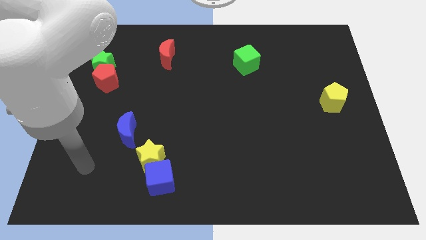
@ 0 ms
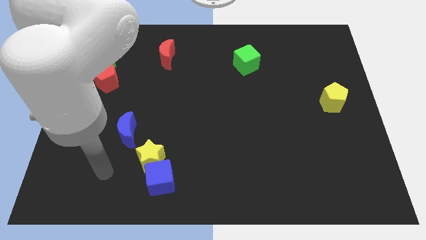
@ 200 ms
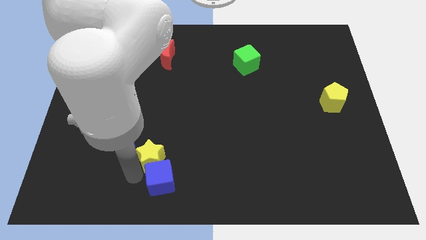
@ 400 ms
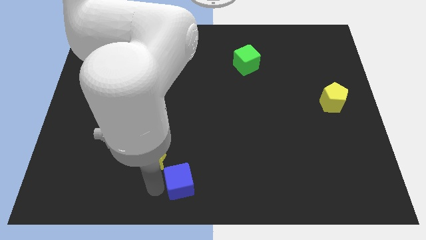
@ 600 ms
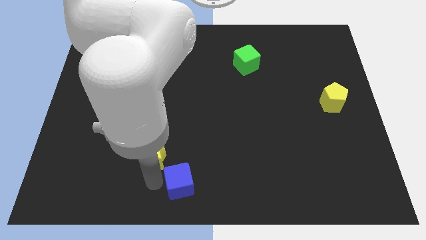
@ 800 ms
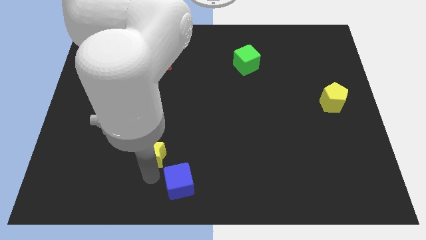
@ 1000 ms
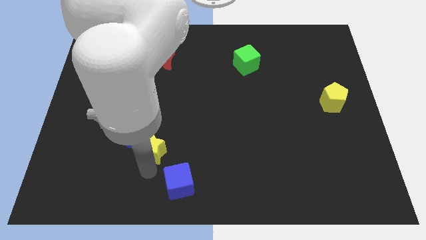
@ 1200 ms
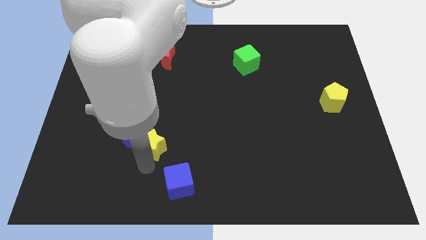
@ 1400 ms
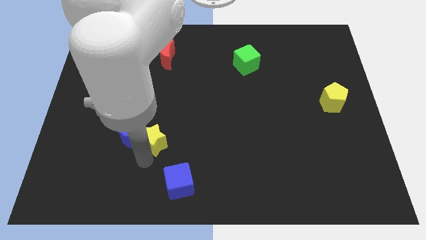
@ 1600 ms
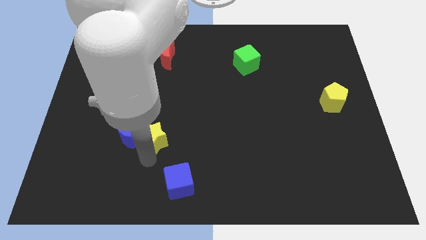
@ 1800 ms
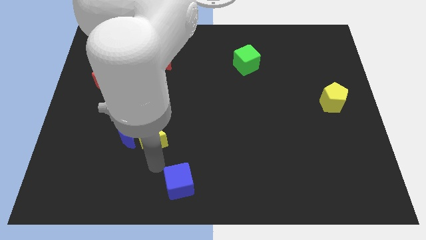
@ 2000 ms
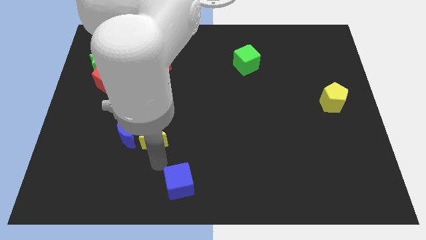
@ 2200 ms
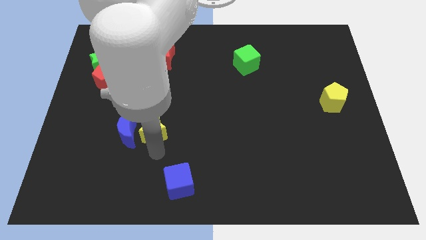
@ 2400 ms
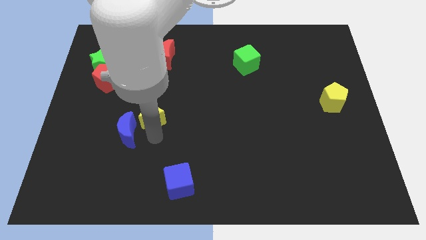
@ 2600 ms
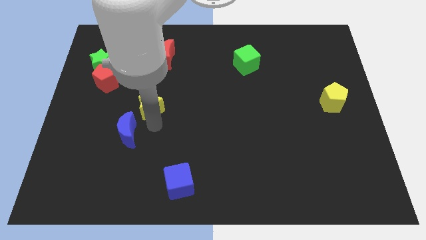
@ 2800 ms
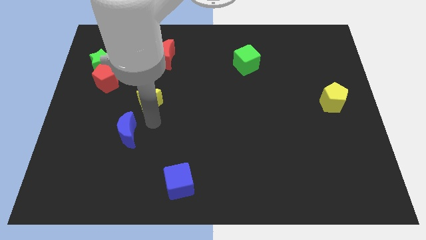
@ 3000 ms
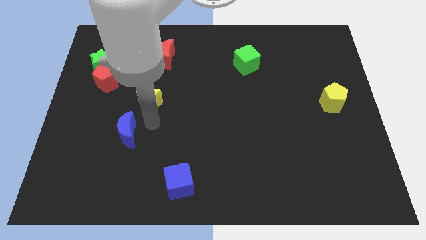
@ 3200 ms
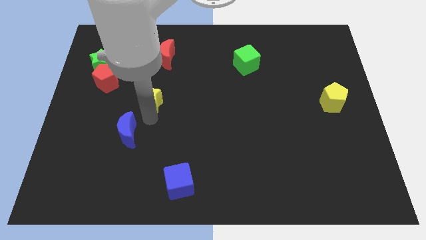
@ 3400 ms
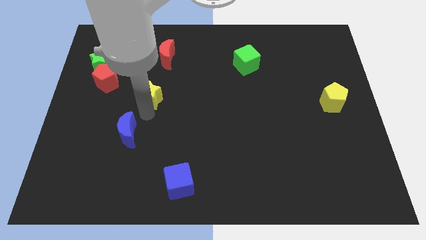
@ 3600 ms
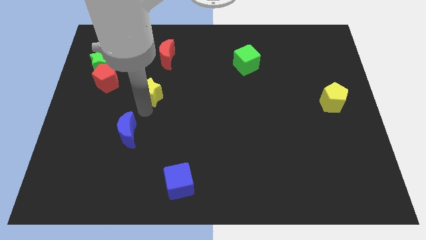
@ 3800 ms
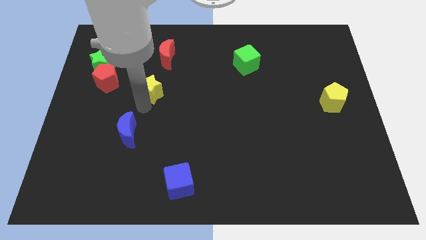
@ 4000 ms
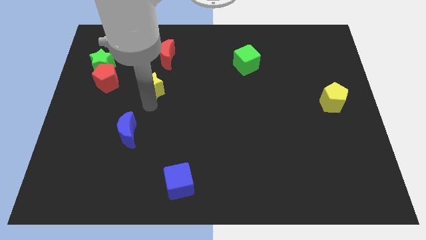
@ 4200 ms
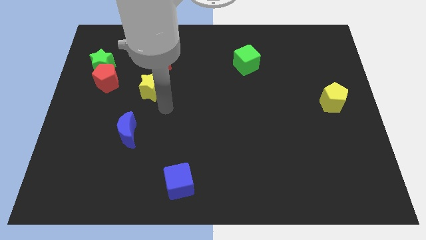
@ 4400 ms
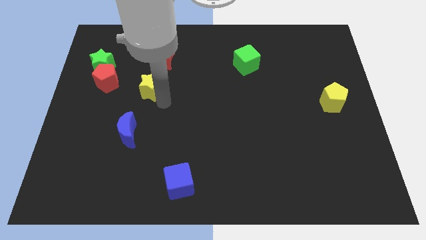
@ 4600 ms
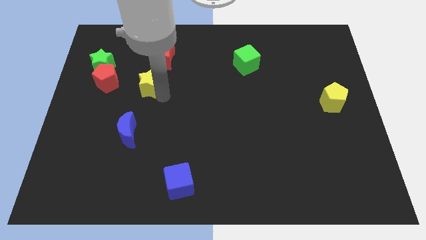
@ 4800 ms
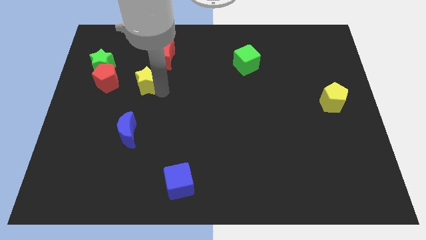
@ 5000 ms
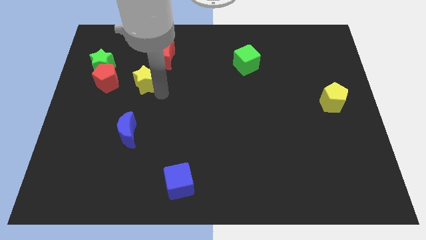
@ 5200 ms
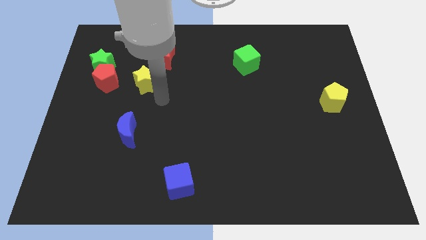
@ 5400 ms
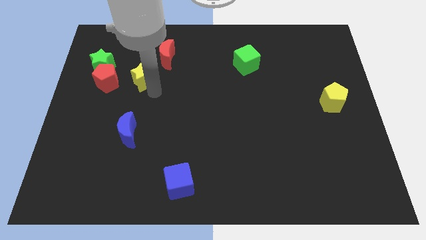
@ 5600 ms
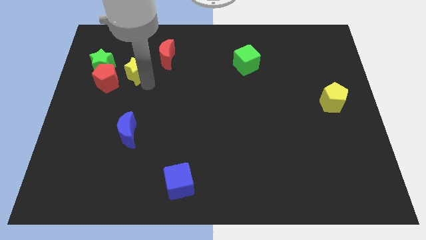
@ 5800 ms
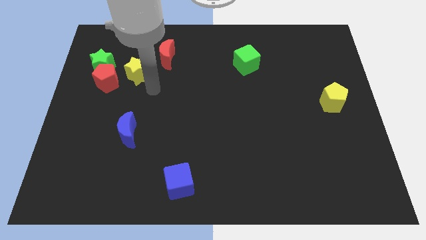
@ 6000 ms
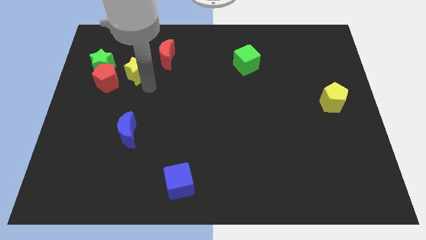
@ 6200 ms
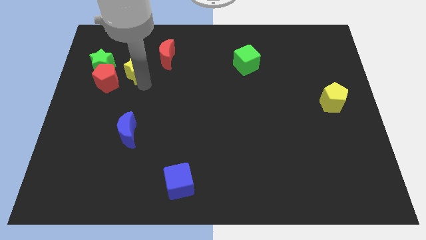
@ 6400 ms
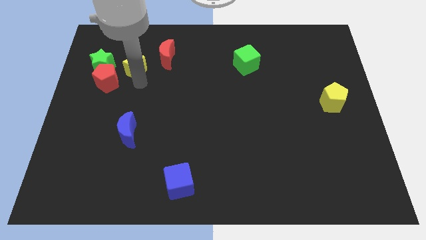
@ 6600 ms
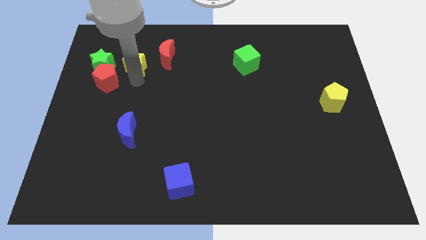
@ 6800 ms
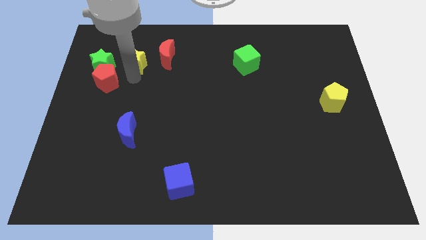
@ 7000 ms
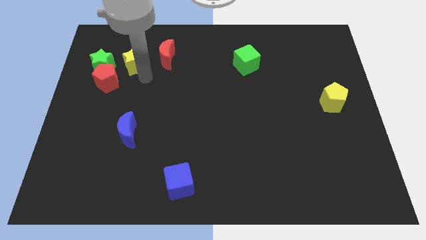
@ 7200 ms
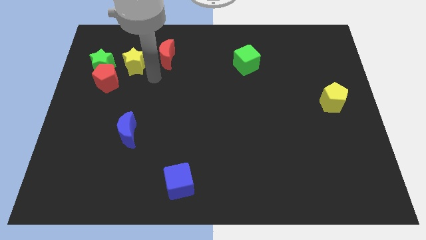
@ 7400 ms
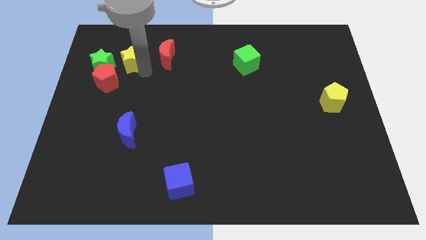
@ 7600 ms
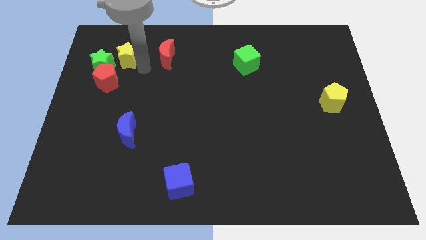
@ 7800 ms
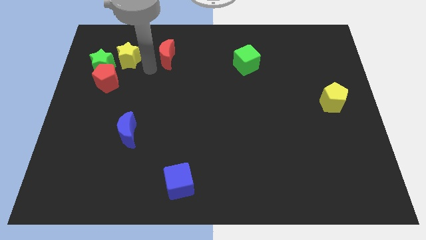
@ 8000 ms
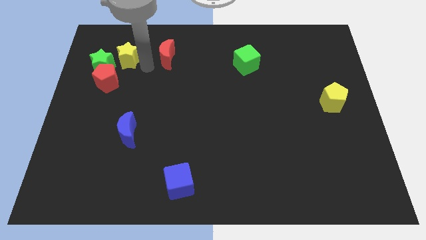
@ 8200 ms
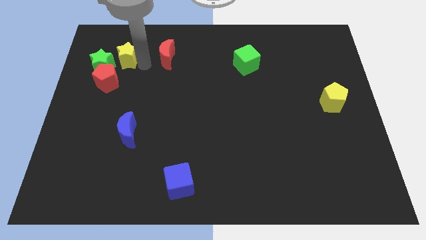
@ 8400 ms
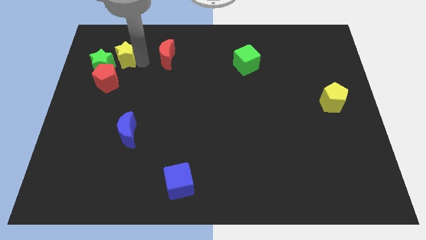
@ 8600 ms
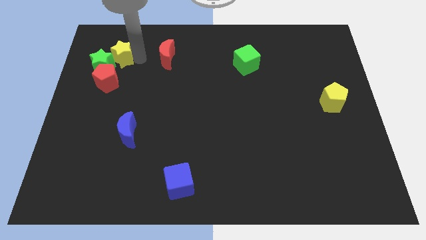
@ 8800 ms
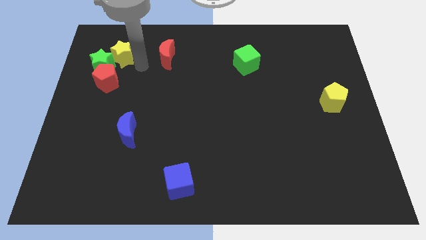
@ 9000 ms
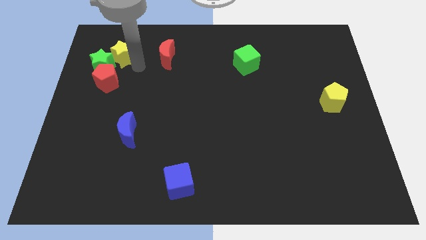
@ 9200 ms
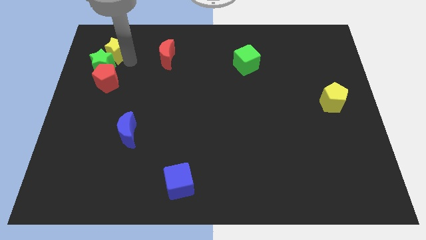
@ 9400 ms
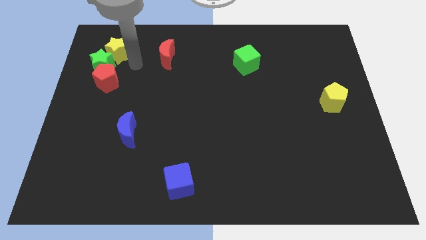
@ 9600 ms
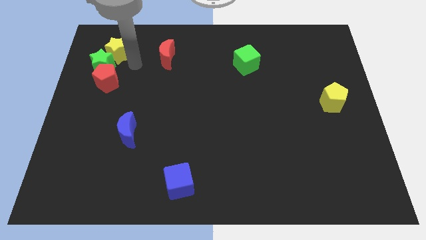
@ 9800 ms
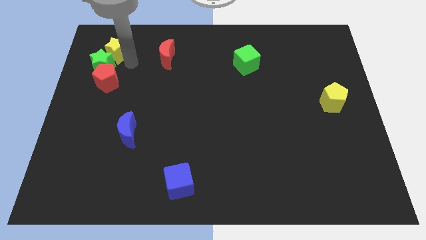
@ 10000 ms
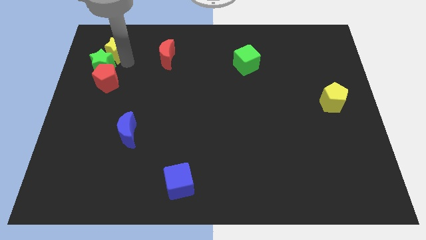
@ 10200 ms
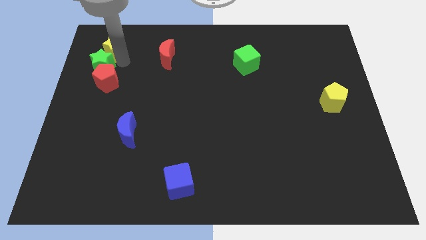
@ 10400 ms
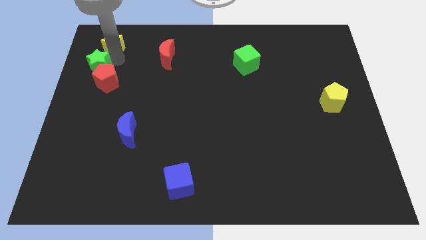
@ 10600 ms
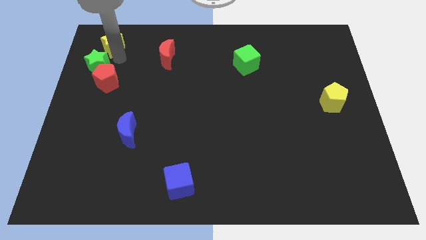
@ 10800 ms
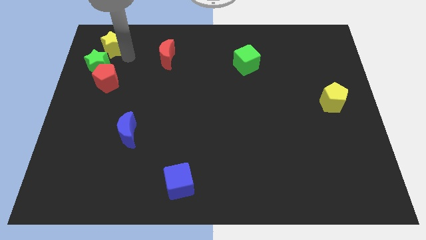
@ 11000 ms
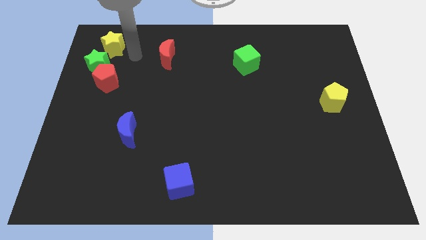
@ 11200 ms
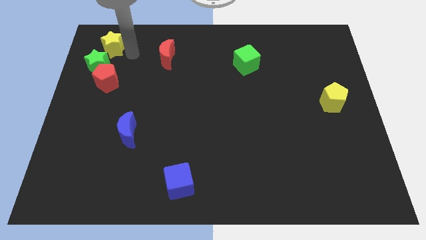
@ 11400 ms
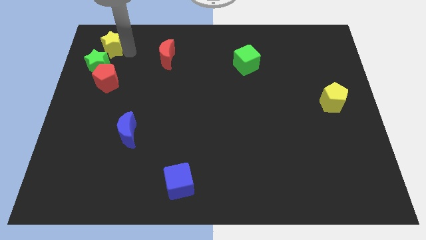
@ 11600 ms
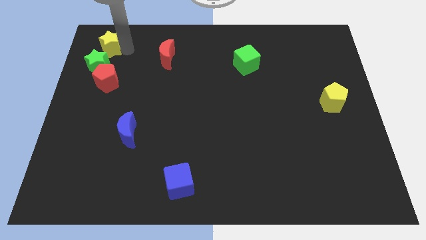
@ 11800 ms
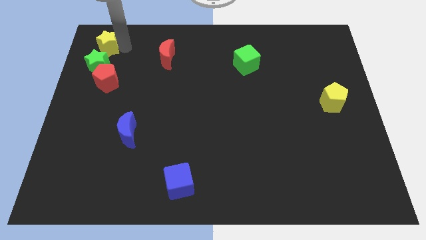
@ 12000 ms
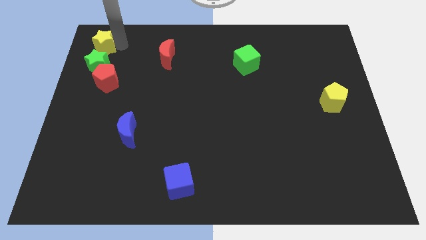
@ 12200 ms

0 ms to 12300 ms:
push the yellow star to the upper left corner
